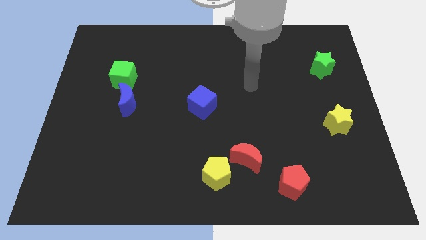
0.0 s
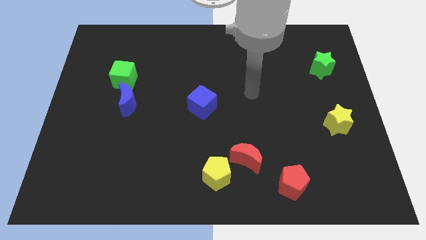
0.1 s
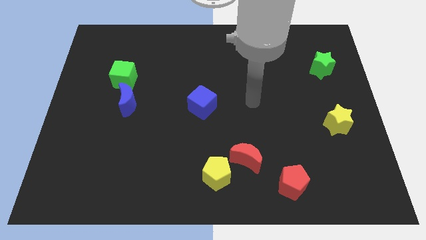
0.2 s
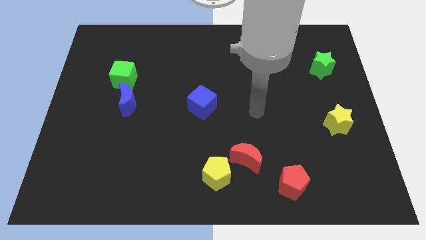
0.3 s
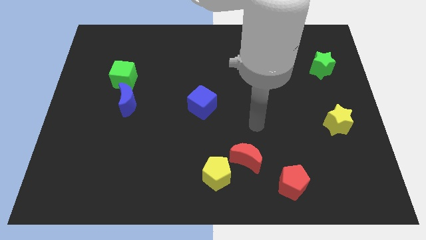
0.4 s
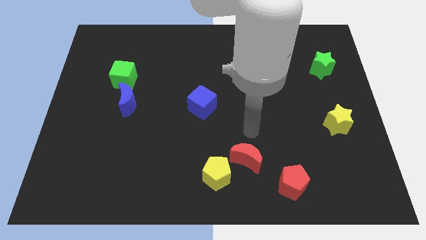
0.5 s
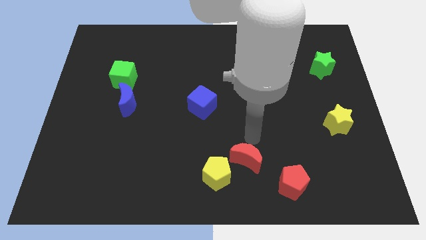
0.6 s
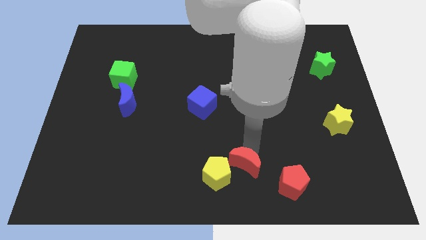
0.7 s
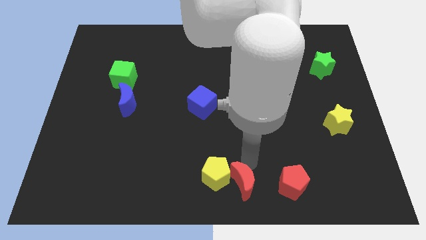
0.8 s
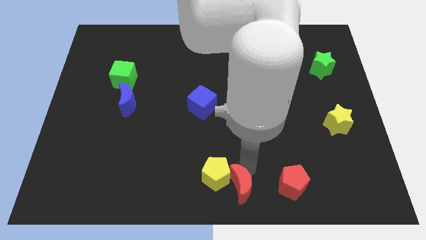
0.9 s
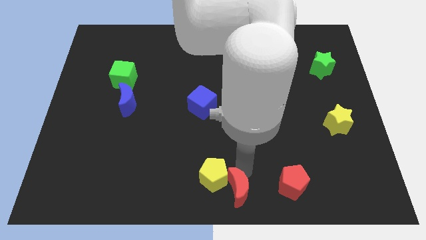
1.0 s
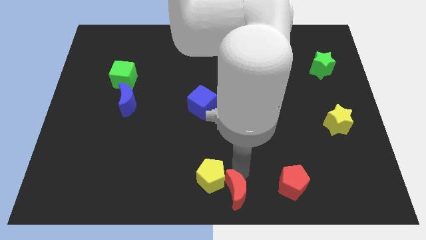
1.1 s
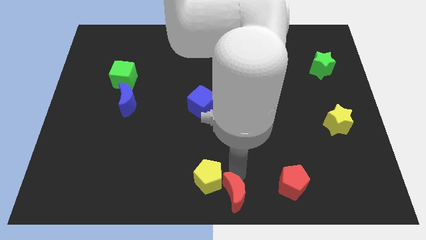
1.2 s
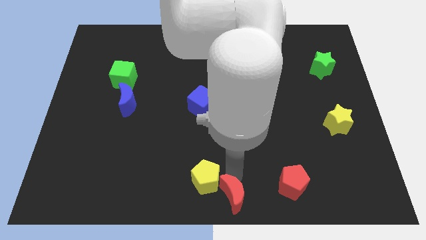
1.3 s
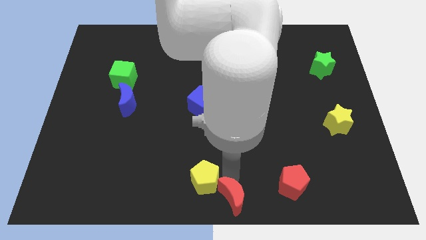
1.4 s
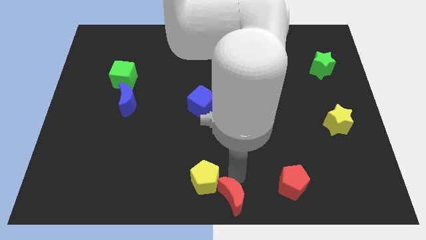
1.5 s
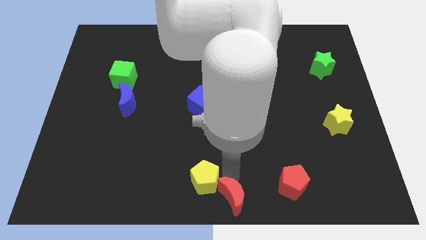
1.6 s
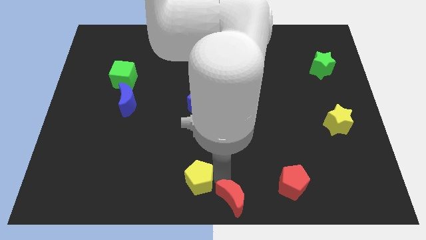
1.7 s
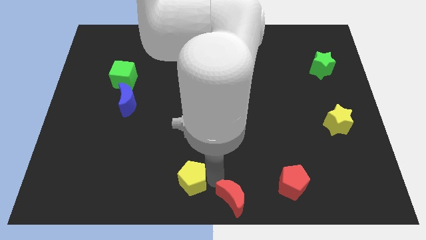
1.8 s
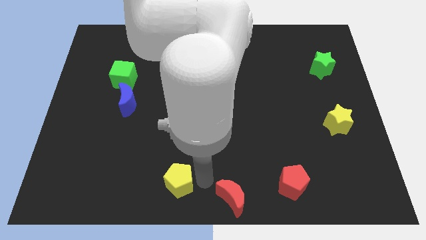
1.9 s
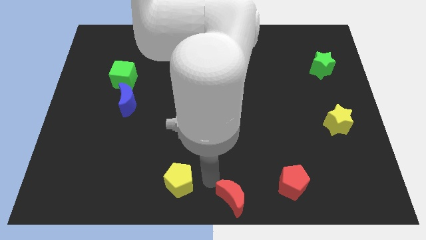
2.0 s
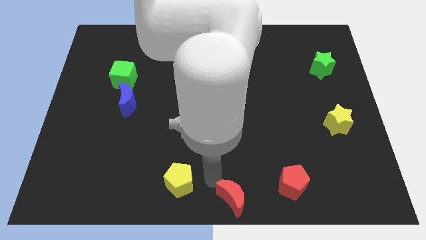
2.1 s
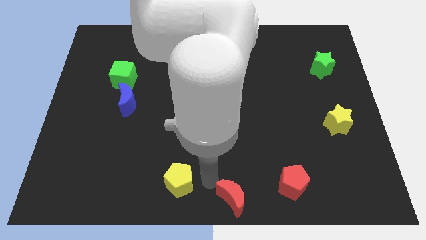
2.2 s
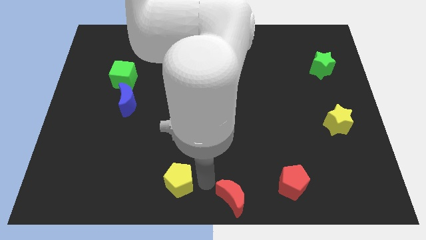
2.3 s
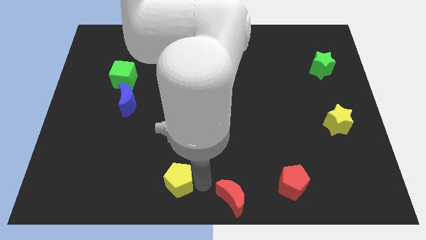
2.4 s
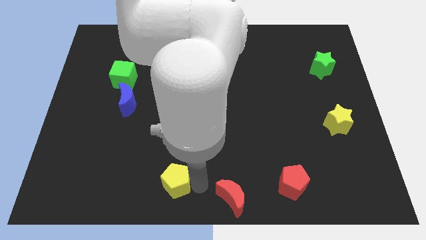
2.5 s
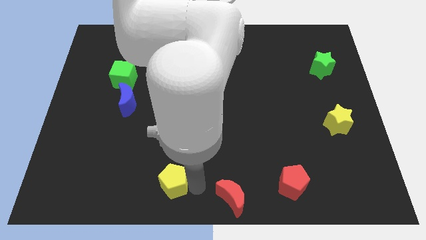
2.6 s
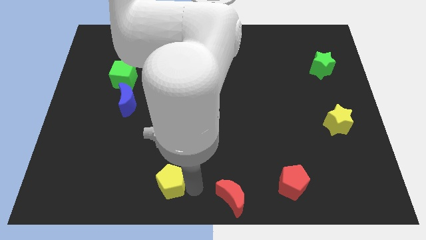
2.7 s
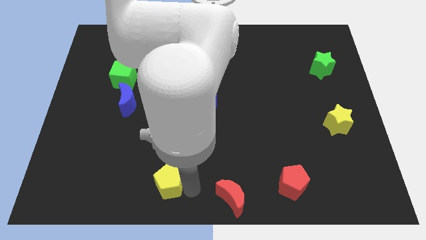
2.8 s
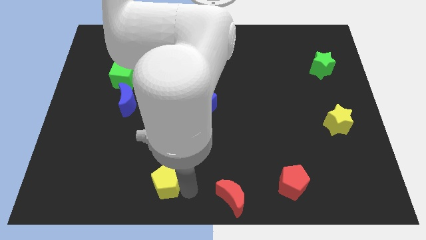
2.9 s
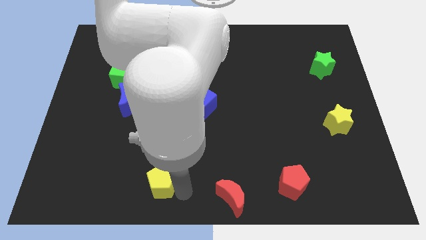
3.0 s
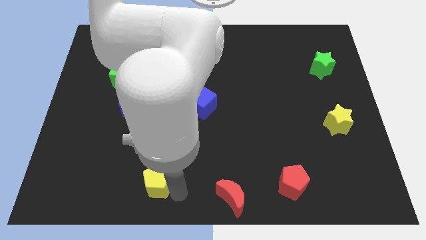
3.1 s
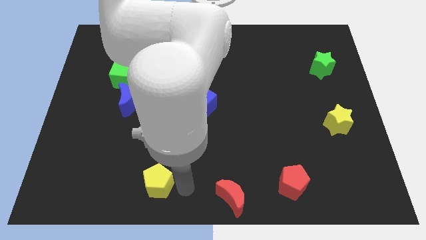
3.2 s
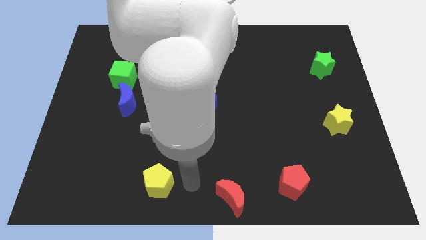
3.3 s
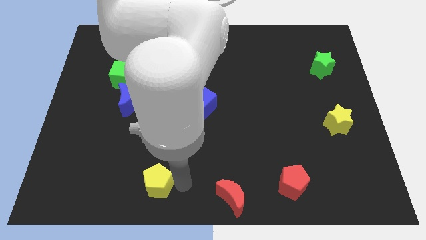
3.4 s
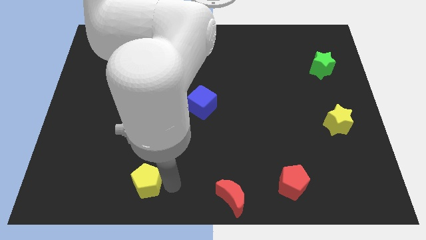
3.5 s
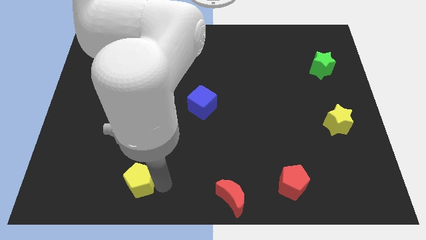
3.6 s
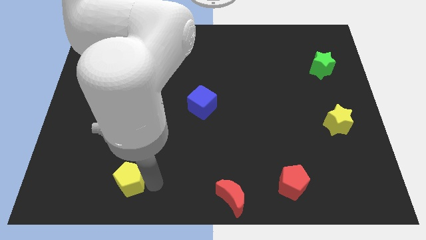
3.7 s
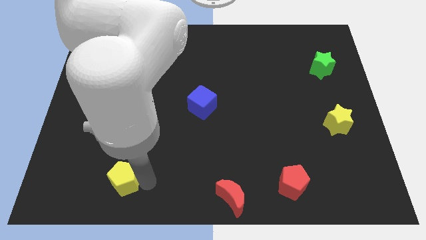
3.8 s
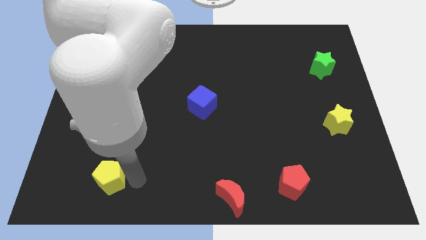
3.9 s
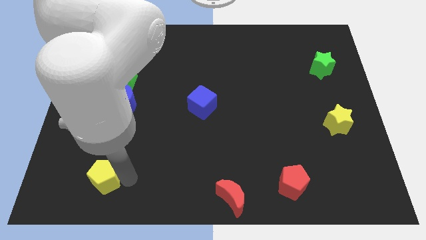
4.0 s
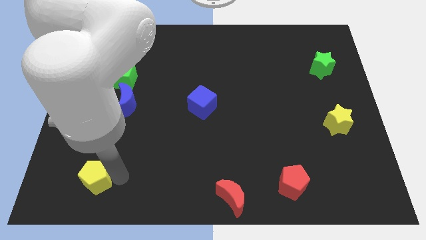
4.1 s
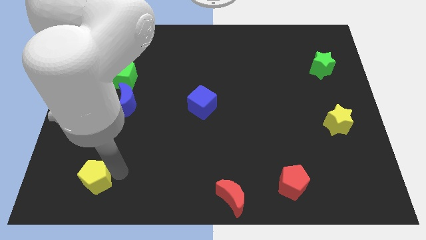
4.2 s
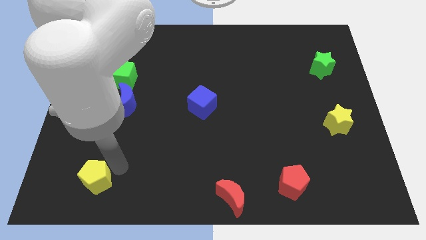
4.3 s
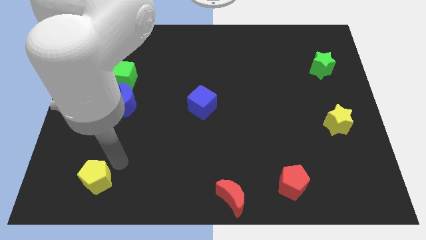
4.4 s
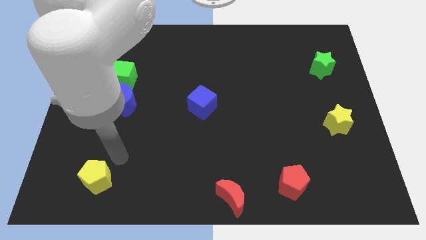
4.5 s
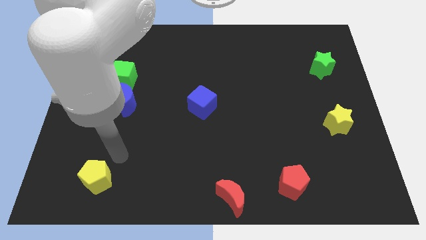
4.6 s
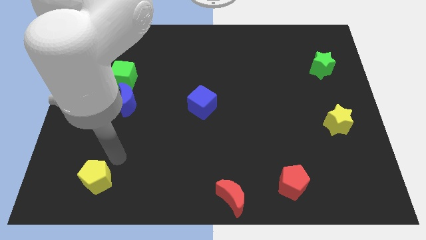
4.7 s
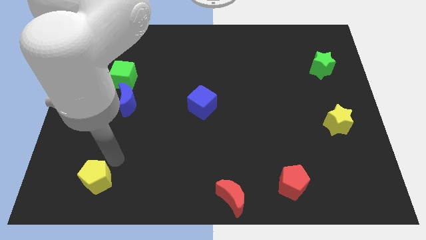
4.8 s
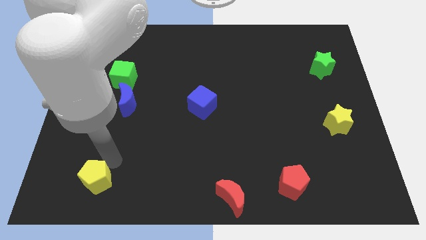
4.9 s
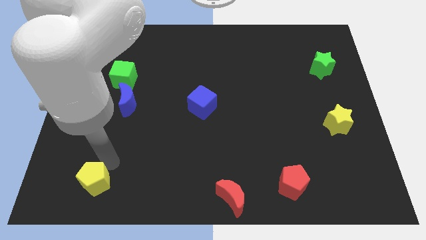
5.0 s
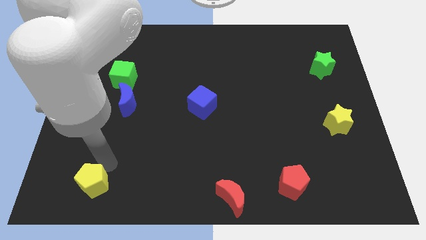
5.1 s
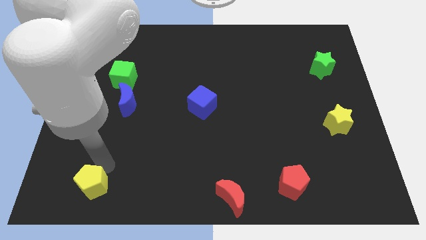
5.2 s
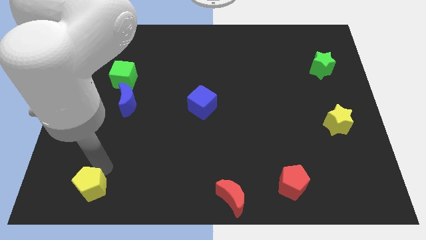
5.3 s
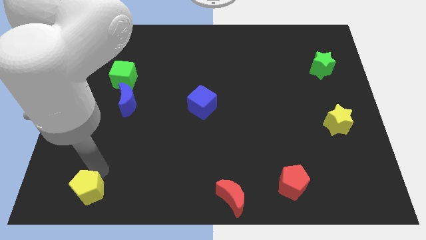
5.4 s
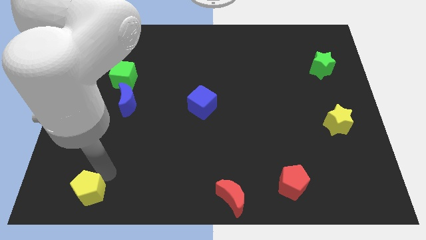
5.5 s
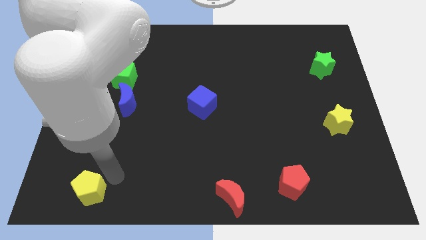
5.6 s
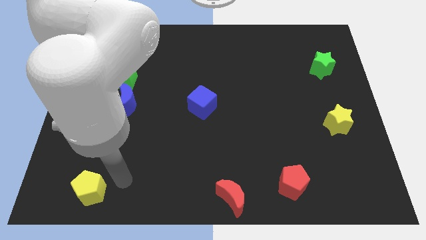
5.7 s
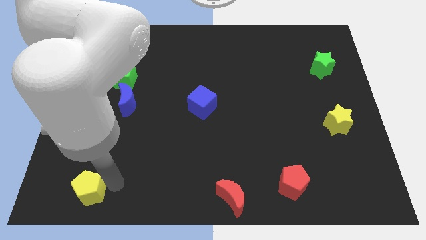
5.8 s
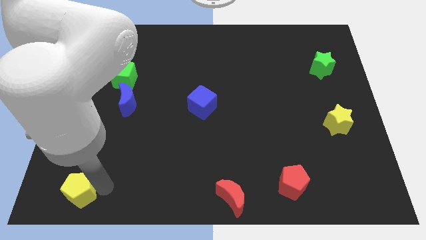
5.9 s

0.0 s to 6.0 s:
move the yellow pentagon to the lower left corner

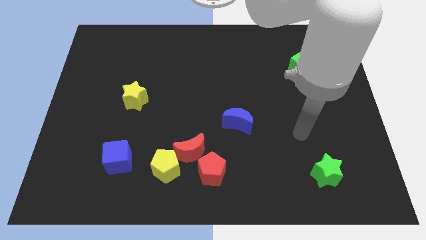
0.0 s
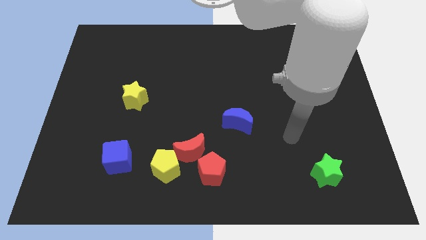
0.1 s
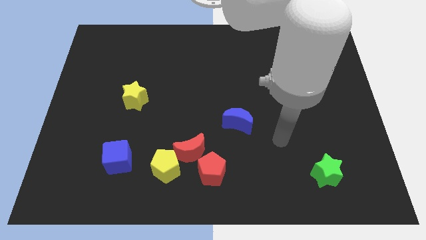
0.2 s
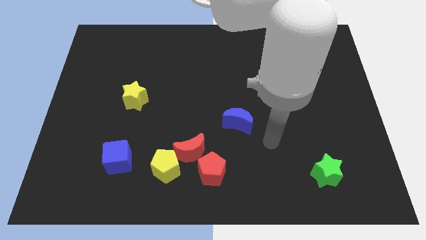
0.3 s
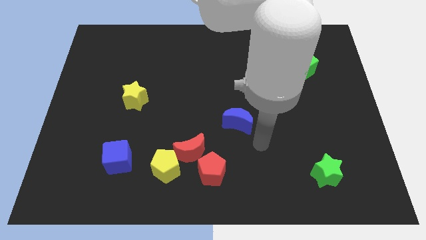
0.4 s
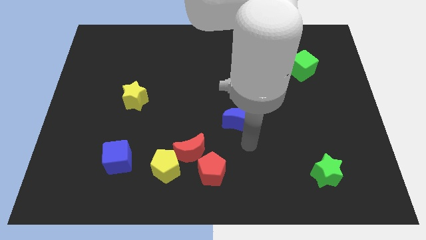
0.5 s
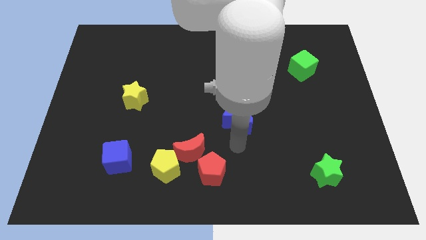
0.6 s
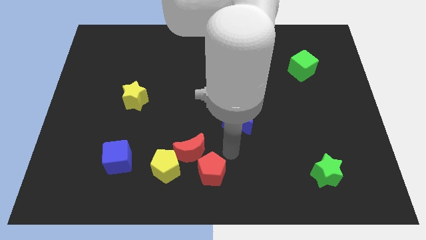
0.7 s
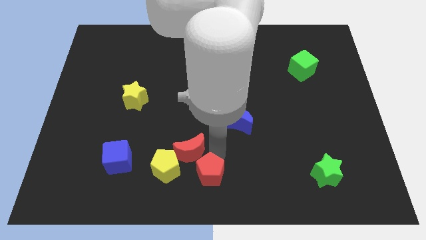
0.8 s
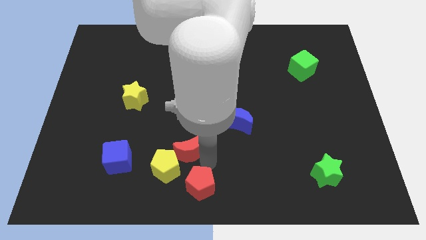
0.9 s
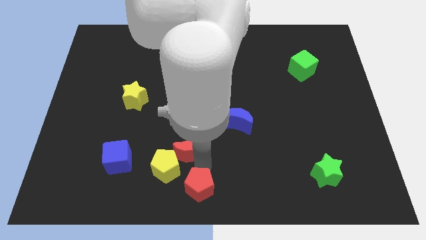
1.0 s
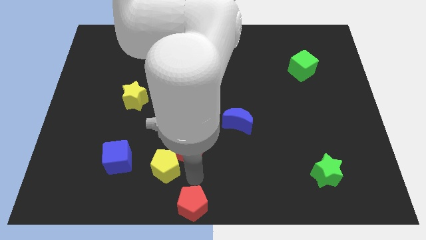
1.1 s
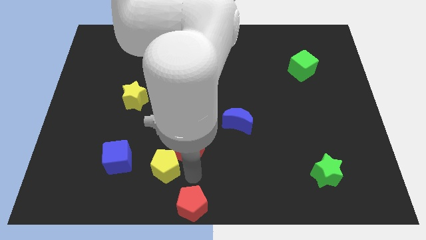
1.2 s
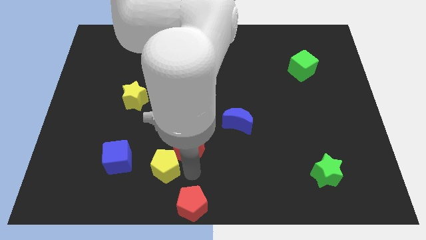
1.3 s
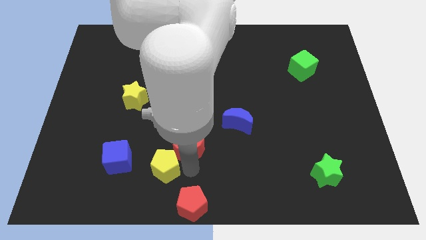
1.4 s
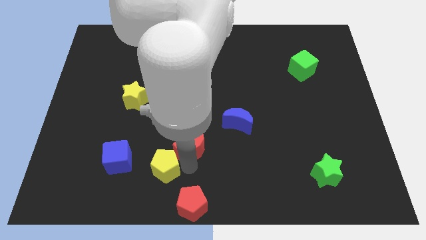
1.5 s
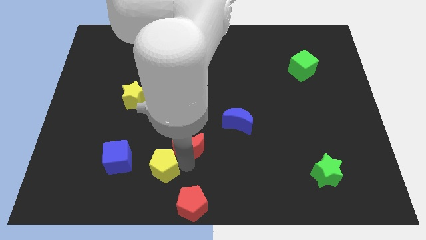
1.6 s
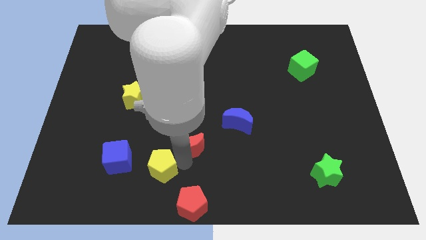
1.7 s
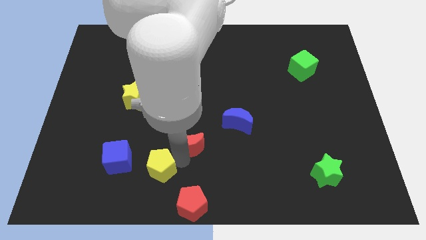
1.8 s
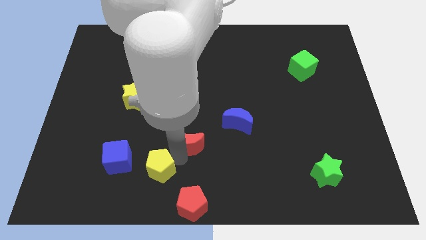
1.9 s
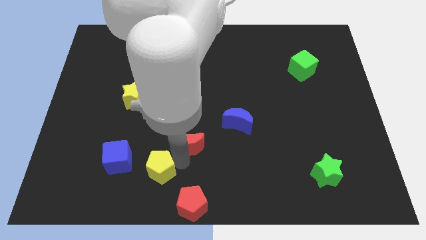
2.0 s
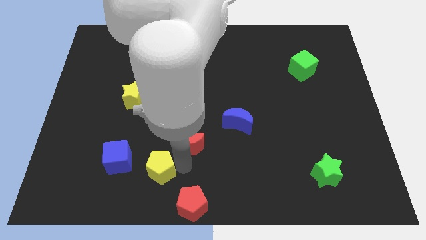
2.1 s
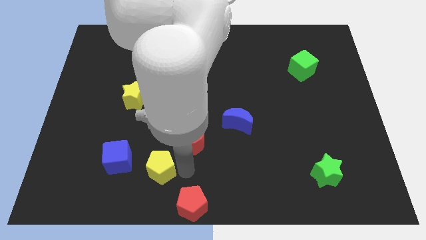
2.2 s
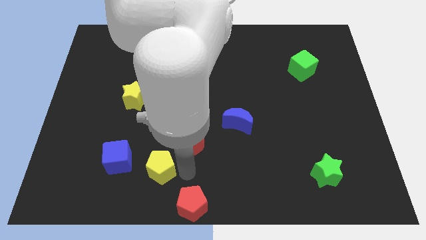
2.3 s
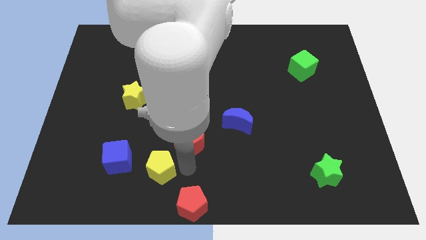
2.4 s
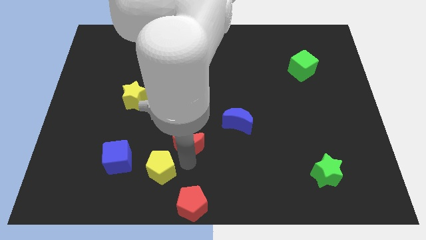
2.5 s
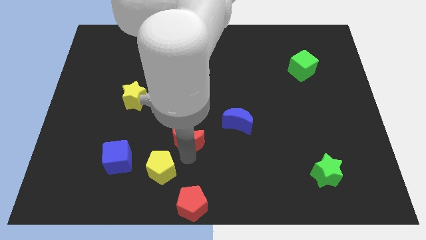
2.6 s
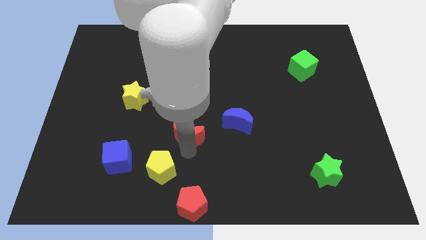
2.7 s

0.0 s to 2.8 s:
put the red moon to the center
